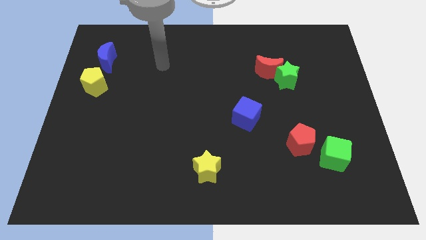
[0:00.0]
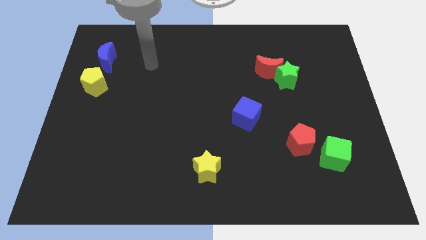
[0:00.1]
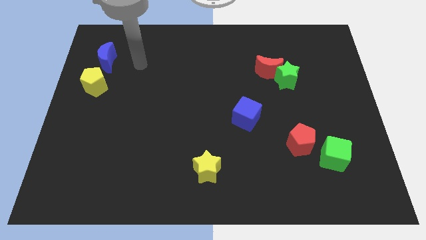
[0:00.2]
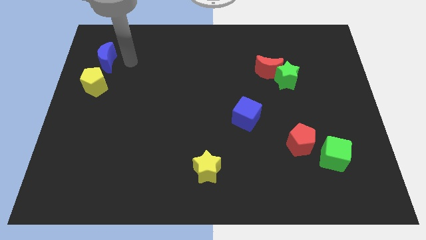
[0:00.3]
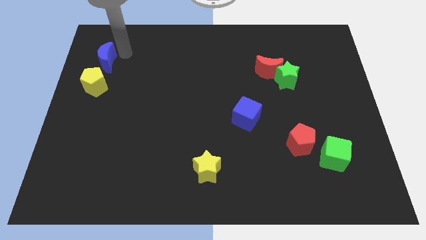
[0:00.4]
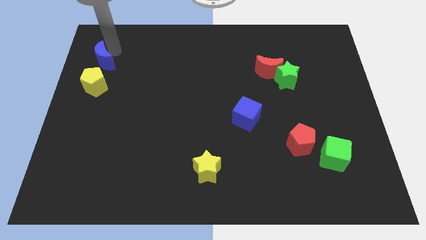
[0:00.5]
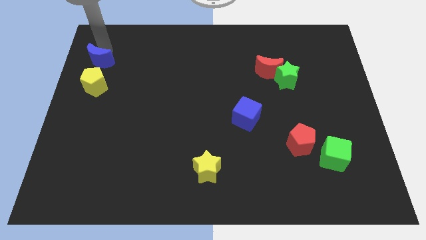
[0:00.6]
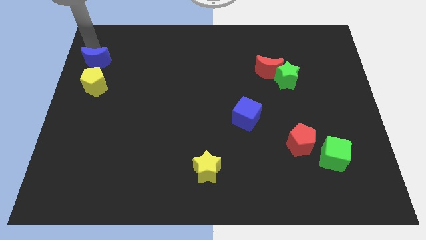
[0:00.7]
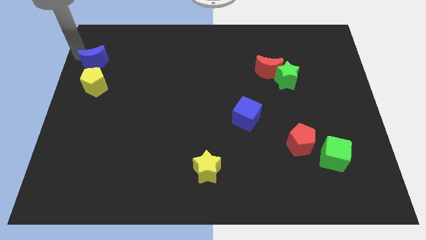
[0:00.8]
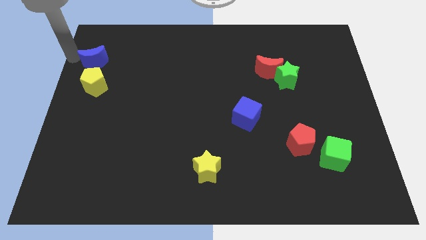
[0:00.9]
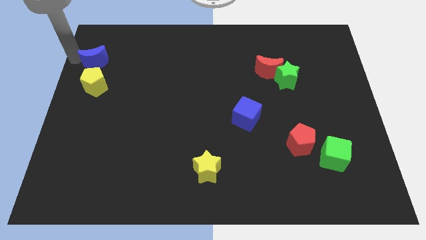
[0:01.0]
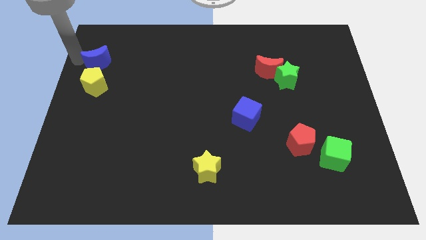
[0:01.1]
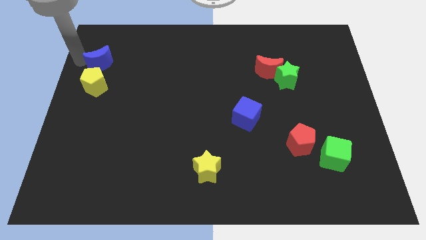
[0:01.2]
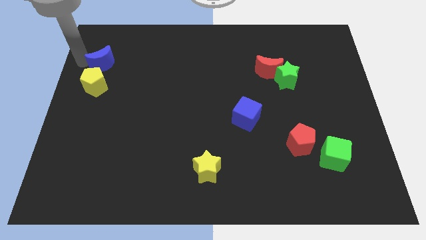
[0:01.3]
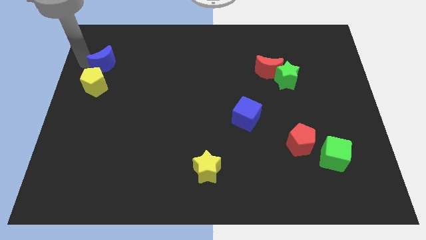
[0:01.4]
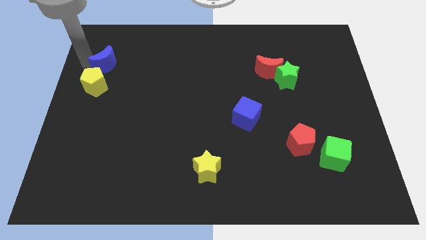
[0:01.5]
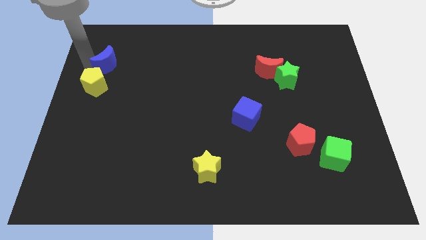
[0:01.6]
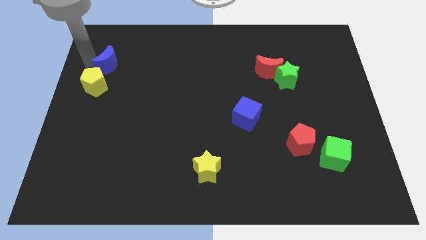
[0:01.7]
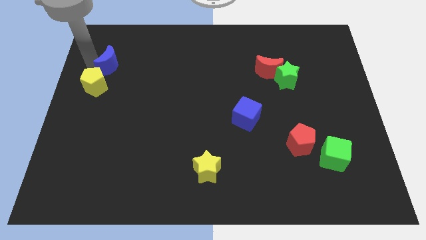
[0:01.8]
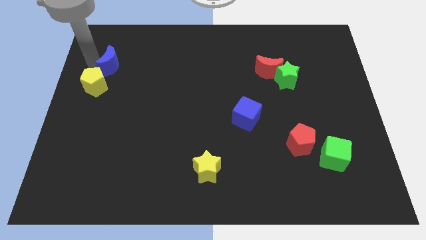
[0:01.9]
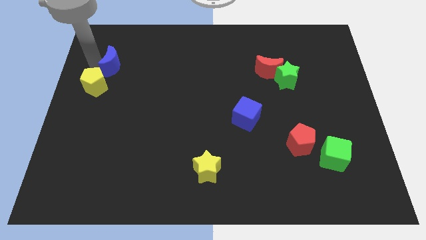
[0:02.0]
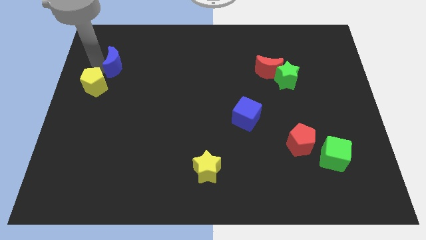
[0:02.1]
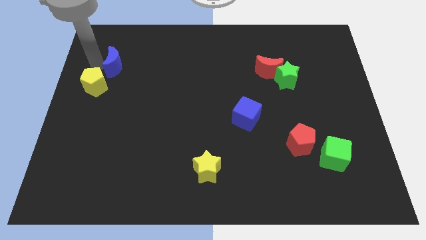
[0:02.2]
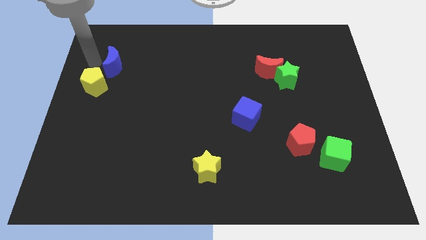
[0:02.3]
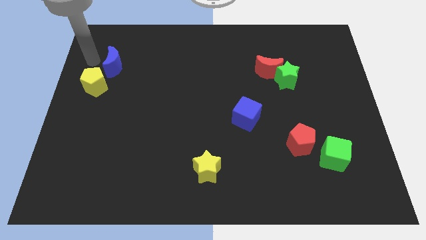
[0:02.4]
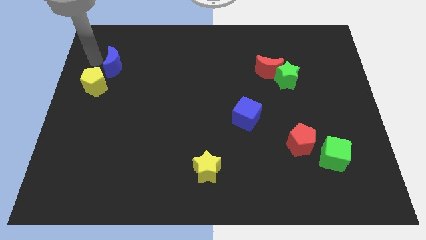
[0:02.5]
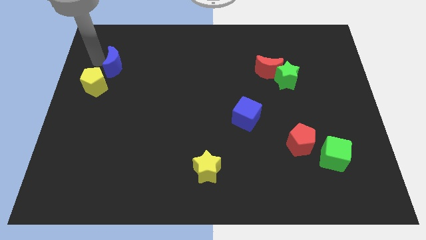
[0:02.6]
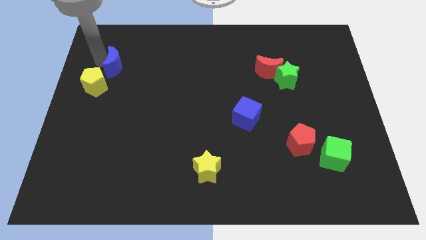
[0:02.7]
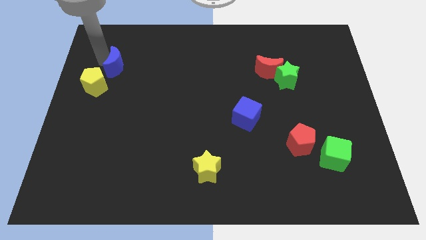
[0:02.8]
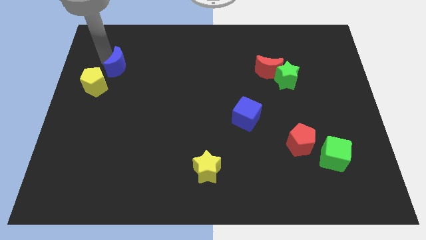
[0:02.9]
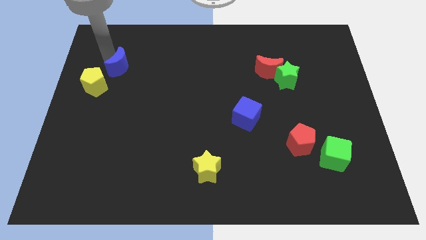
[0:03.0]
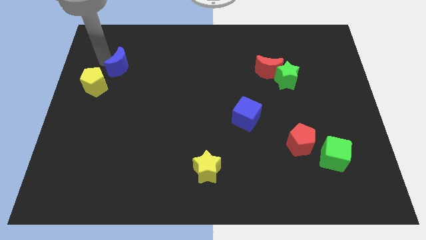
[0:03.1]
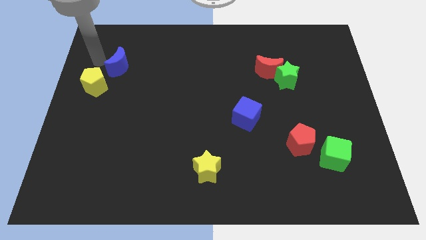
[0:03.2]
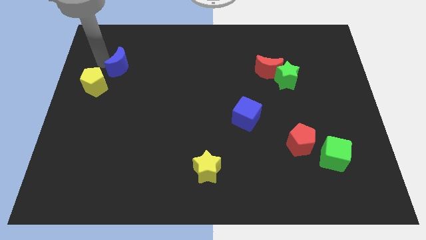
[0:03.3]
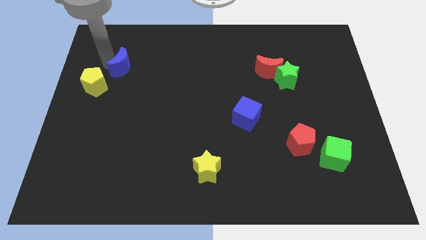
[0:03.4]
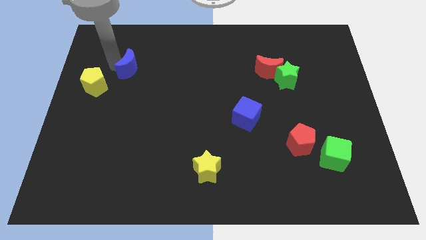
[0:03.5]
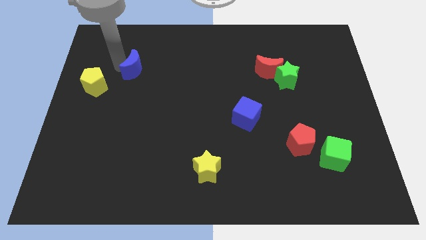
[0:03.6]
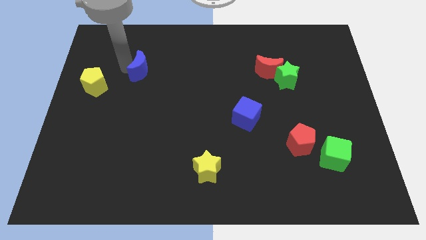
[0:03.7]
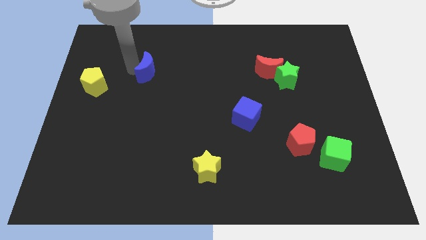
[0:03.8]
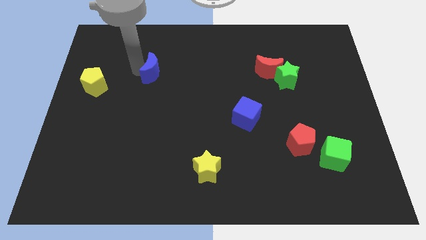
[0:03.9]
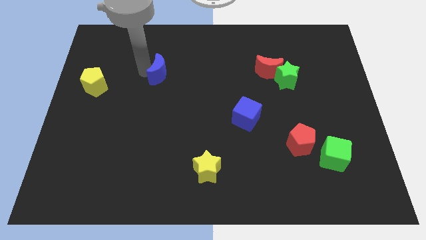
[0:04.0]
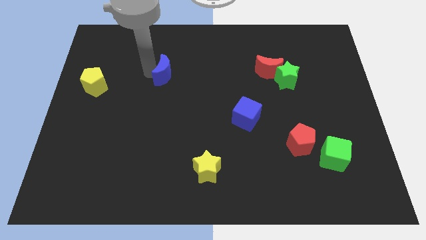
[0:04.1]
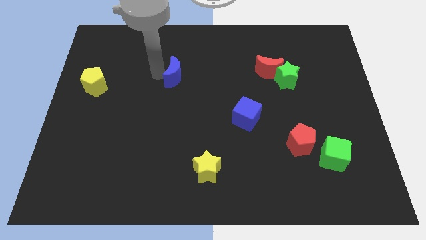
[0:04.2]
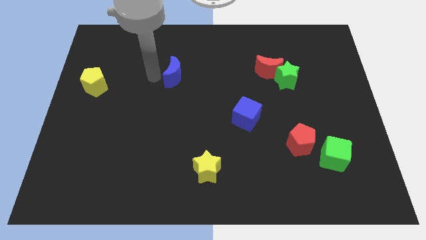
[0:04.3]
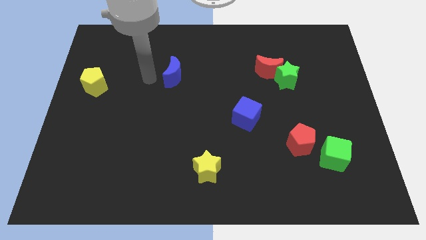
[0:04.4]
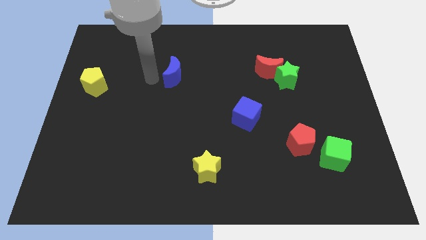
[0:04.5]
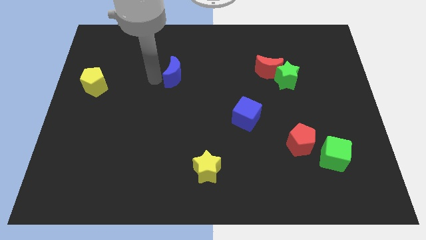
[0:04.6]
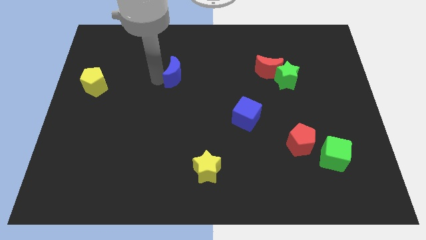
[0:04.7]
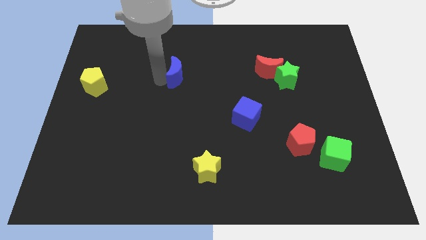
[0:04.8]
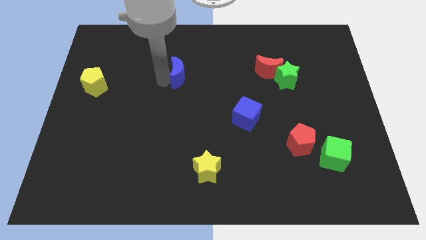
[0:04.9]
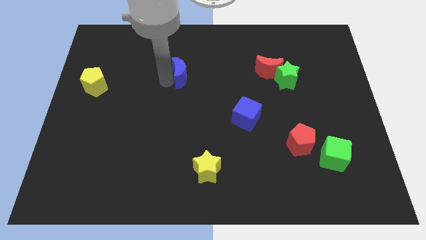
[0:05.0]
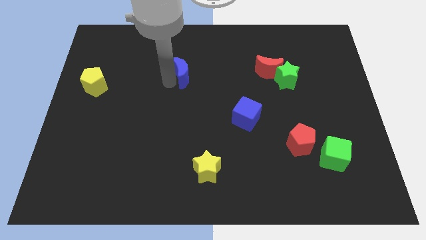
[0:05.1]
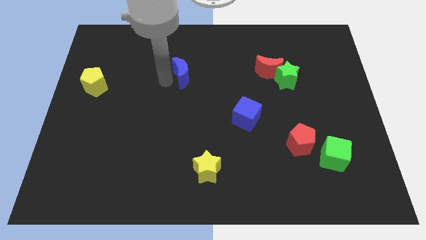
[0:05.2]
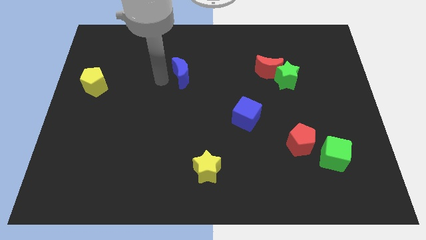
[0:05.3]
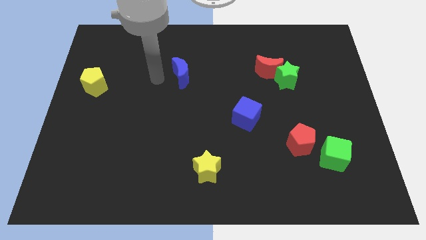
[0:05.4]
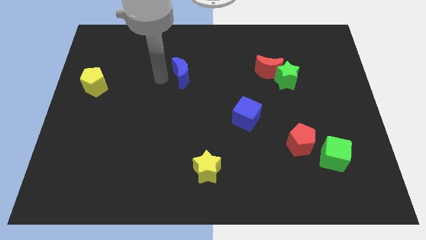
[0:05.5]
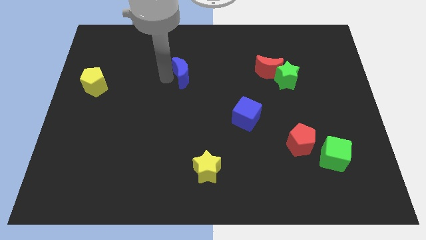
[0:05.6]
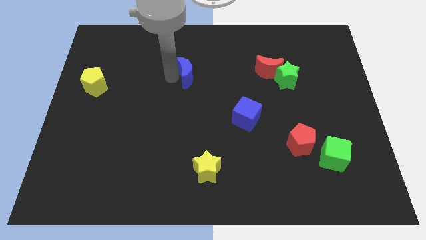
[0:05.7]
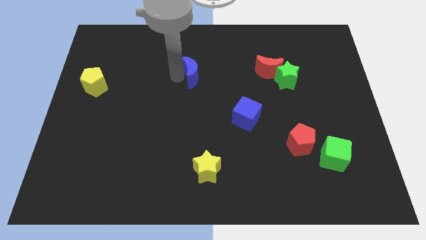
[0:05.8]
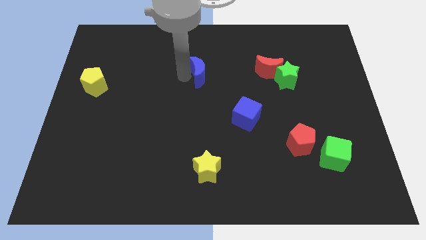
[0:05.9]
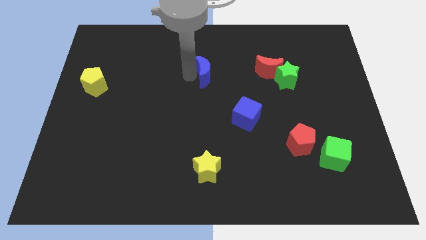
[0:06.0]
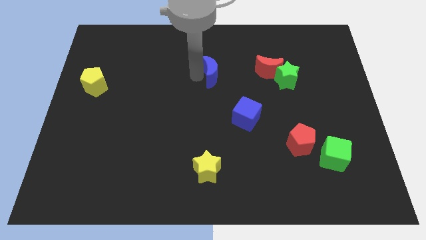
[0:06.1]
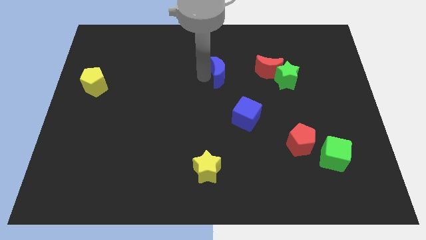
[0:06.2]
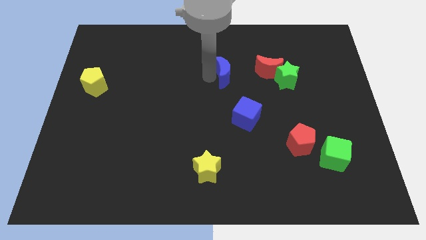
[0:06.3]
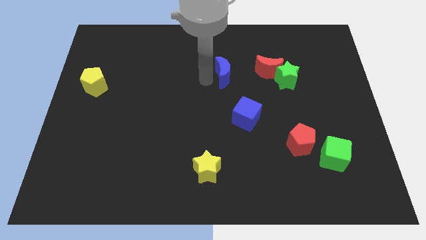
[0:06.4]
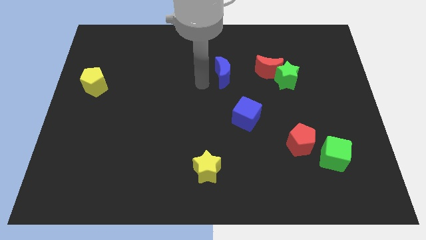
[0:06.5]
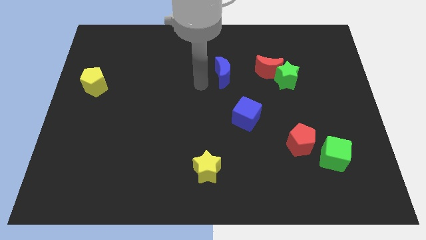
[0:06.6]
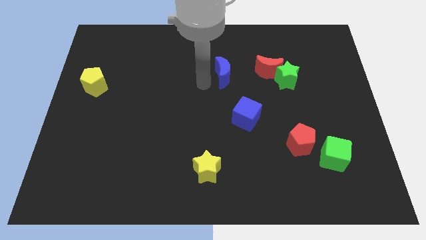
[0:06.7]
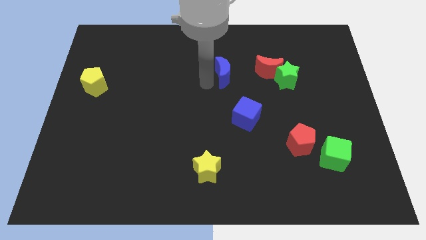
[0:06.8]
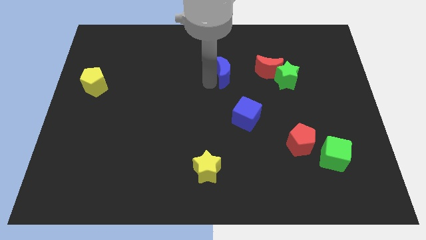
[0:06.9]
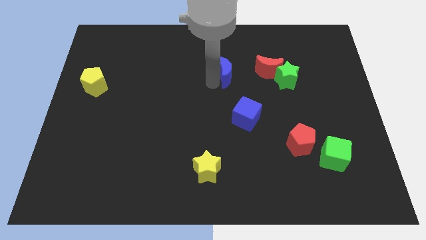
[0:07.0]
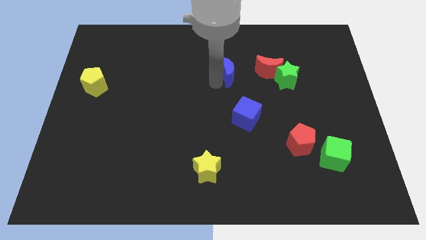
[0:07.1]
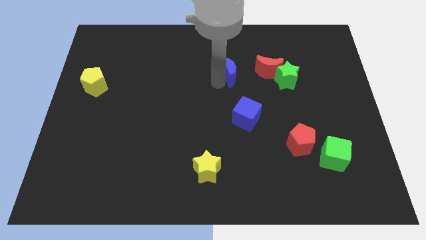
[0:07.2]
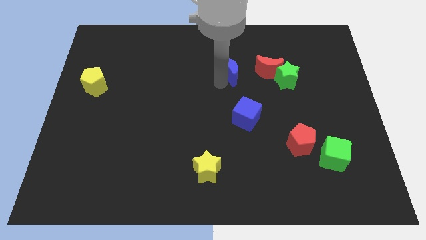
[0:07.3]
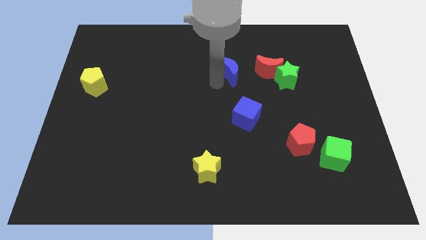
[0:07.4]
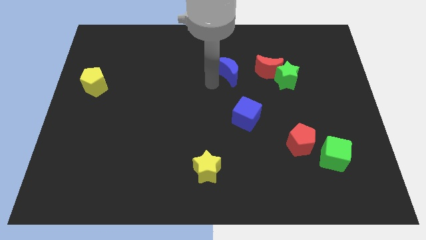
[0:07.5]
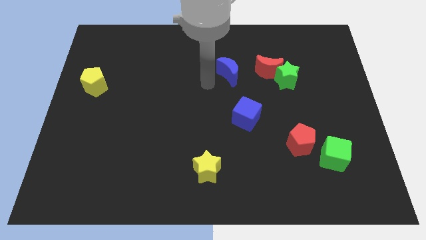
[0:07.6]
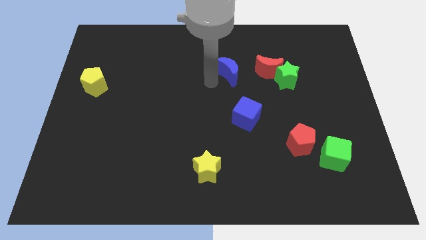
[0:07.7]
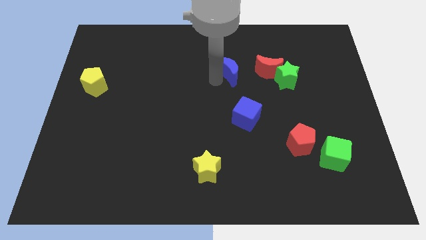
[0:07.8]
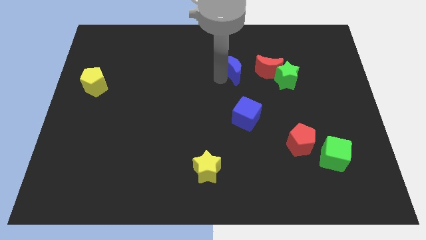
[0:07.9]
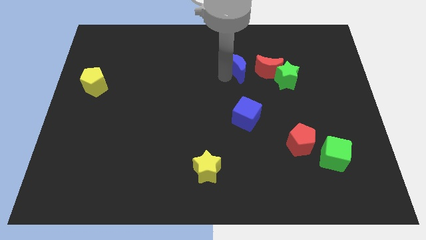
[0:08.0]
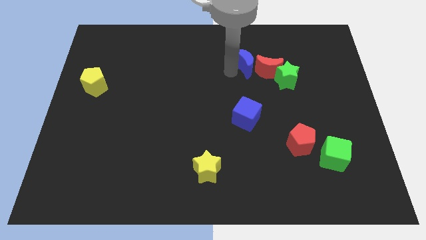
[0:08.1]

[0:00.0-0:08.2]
push the blue moon to the red moon
